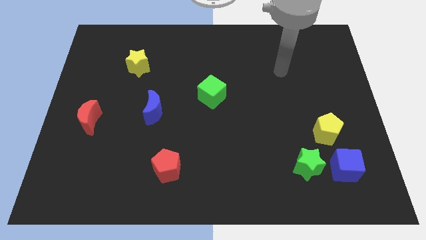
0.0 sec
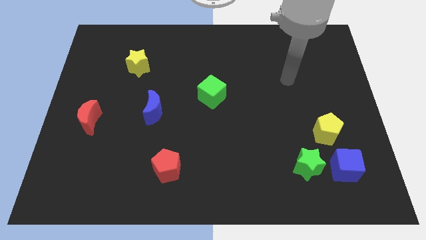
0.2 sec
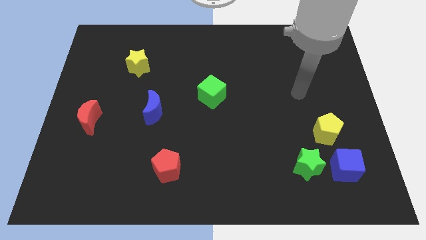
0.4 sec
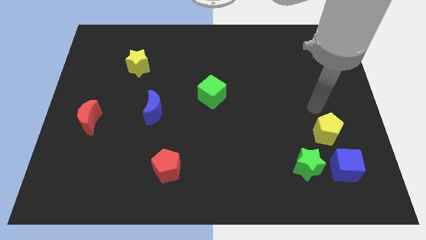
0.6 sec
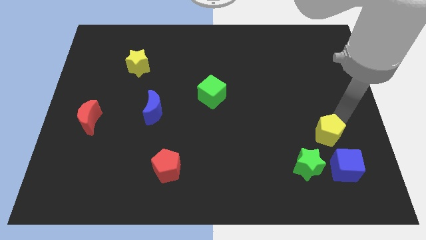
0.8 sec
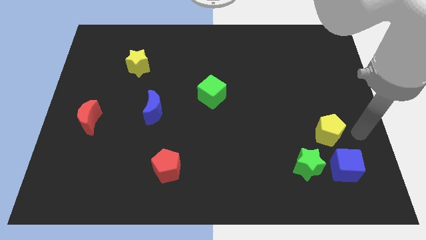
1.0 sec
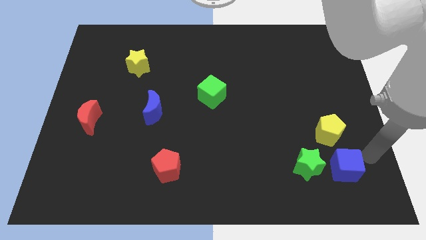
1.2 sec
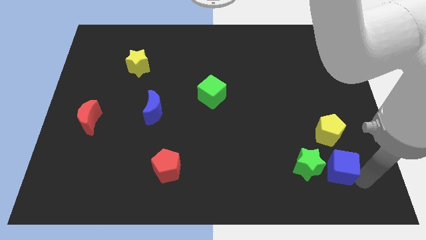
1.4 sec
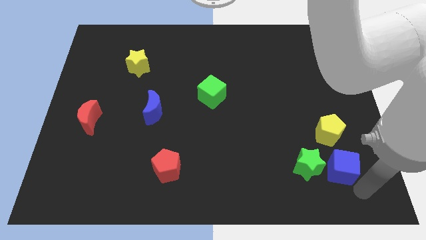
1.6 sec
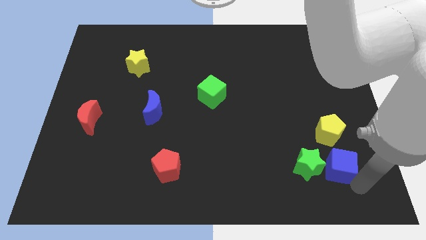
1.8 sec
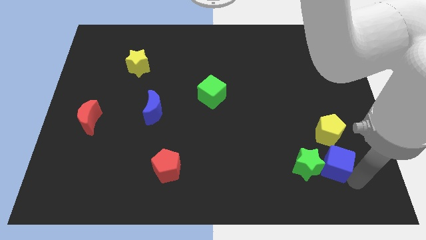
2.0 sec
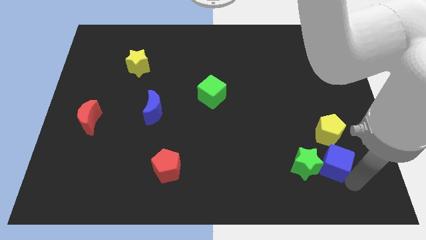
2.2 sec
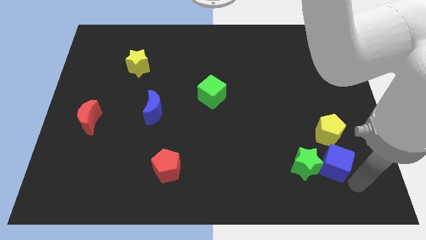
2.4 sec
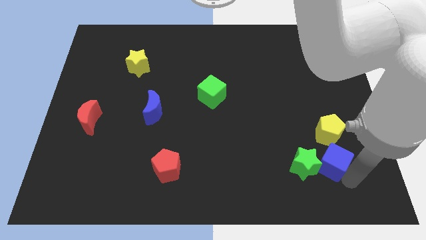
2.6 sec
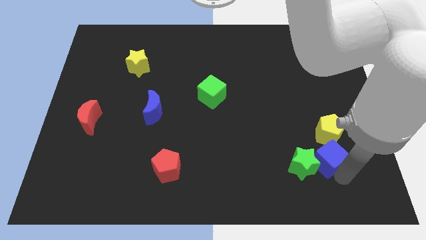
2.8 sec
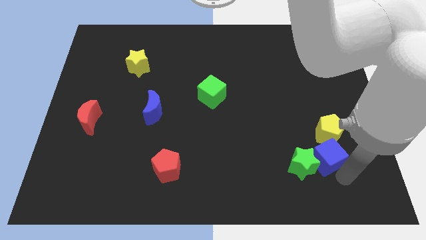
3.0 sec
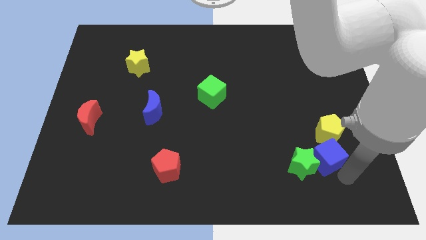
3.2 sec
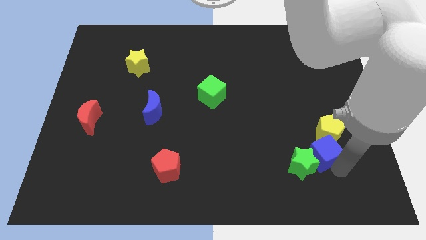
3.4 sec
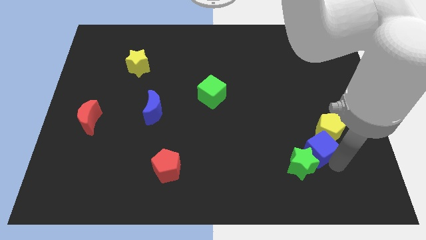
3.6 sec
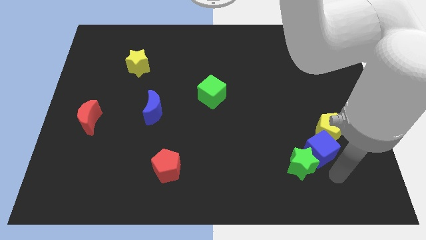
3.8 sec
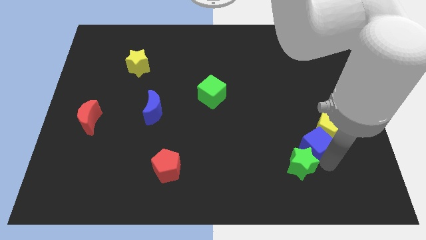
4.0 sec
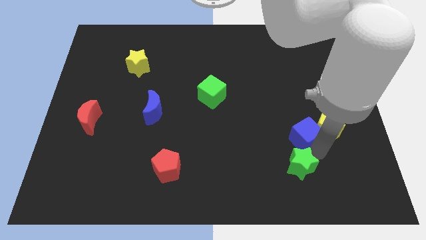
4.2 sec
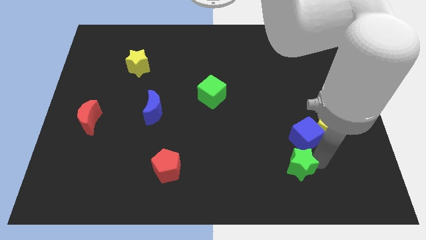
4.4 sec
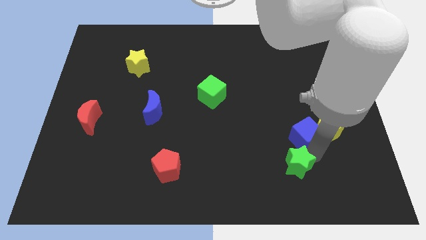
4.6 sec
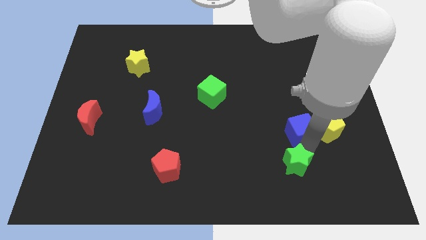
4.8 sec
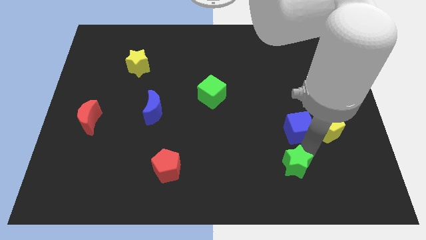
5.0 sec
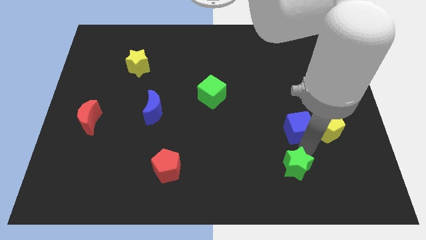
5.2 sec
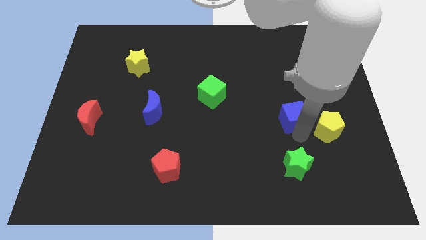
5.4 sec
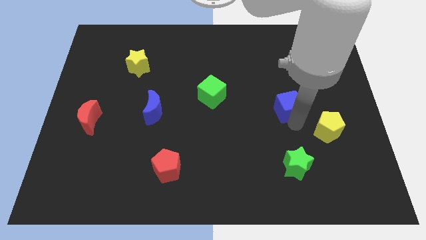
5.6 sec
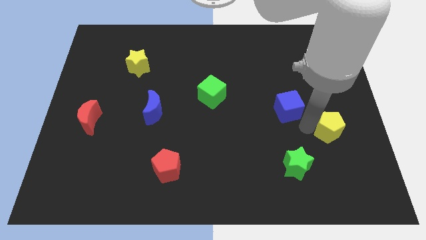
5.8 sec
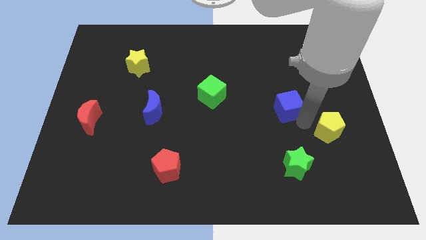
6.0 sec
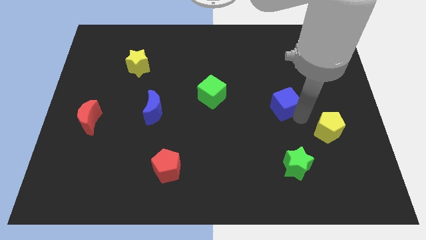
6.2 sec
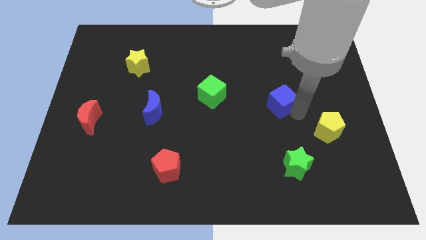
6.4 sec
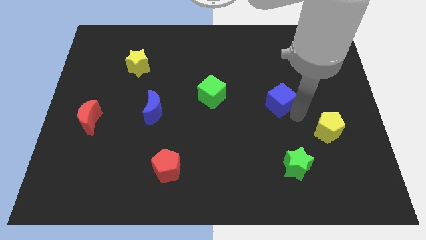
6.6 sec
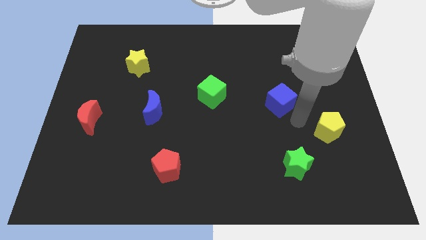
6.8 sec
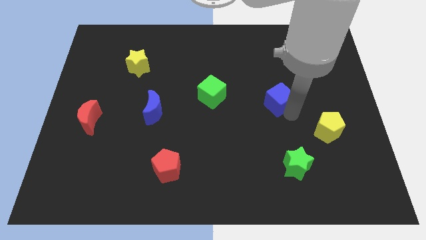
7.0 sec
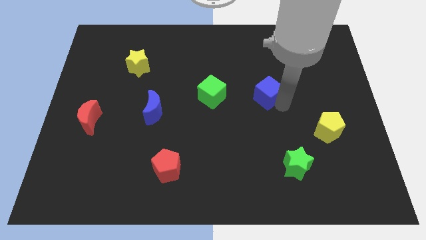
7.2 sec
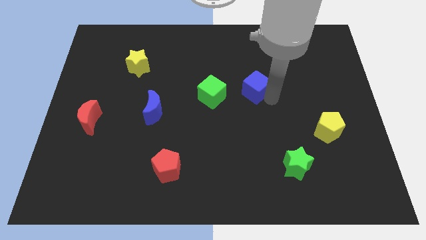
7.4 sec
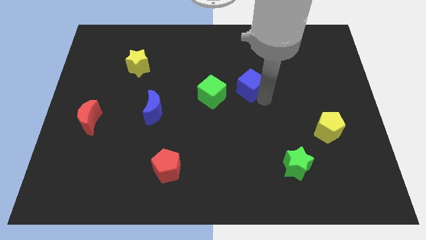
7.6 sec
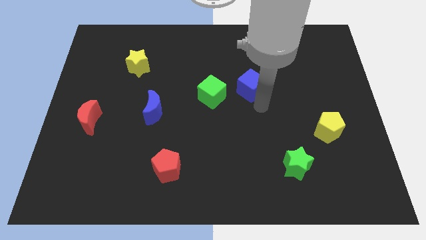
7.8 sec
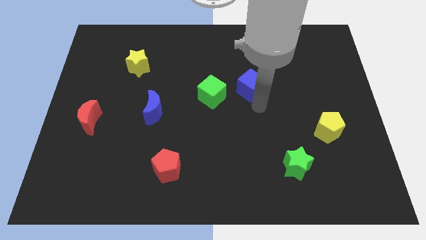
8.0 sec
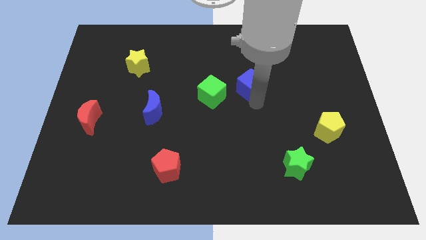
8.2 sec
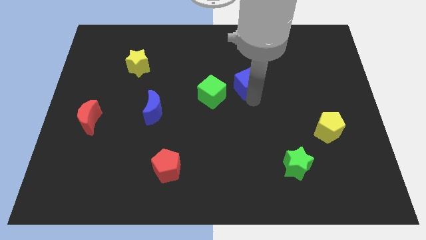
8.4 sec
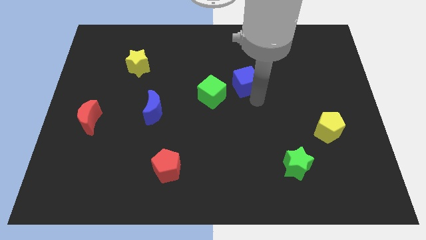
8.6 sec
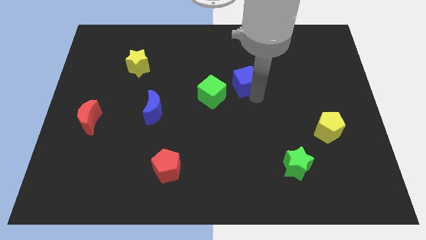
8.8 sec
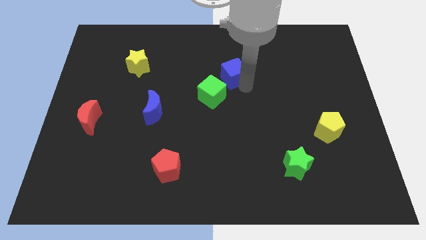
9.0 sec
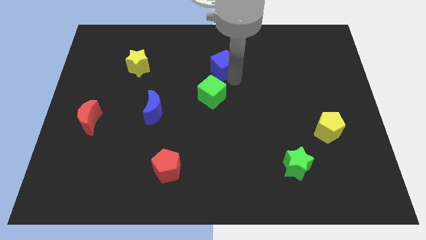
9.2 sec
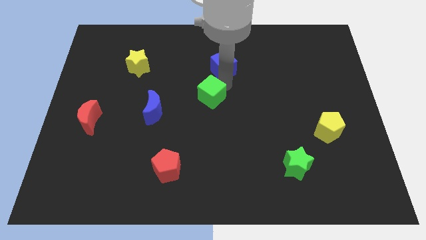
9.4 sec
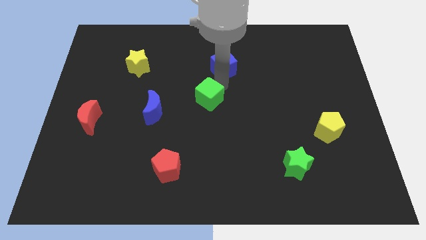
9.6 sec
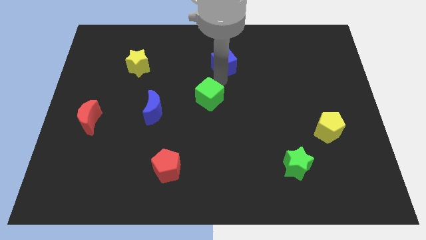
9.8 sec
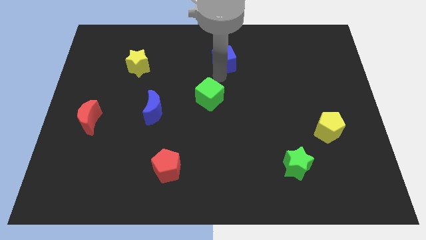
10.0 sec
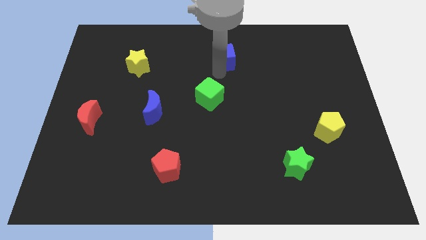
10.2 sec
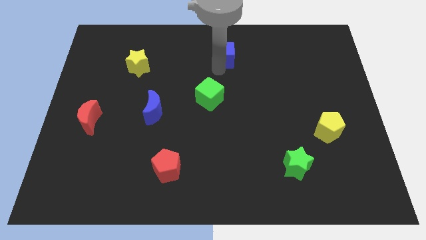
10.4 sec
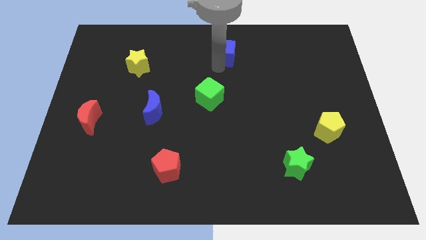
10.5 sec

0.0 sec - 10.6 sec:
put the blue cube to the top side

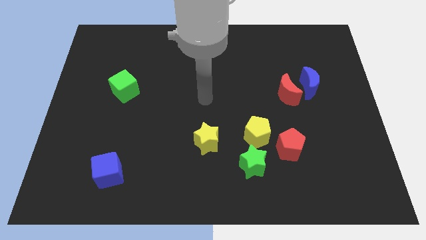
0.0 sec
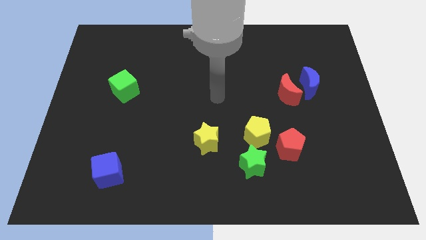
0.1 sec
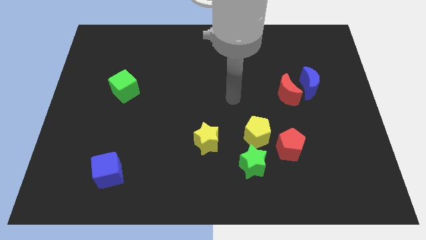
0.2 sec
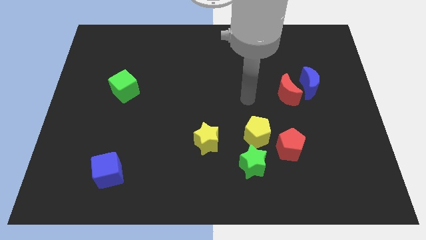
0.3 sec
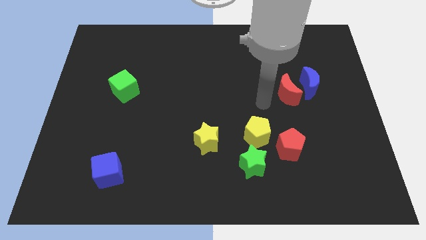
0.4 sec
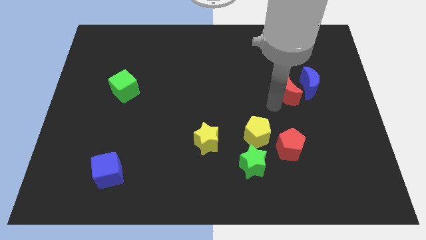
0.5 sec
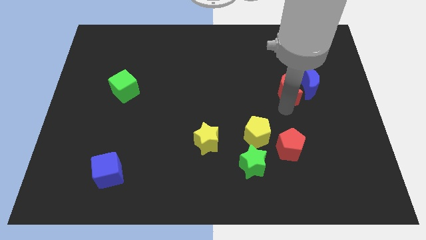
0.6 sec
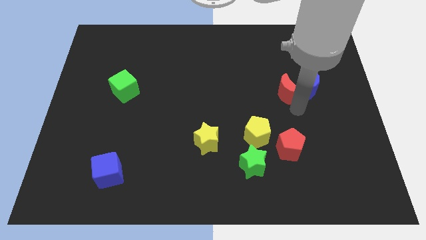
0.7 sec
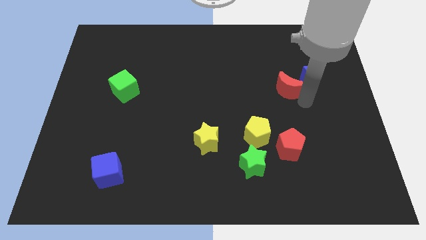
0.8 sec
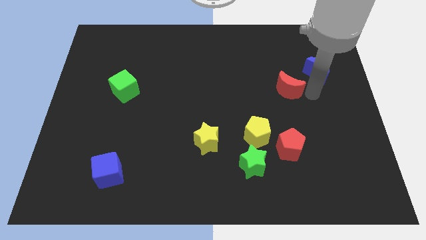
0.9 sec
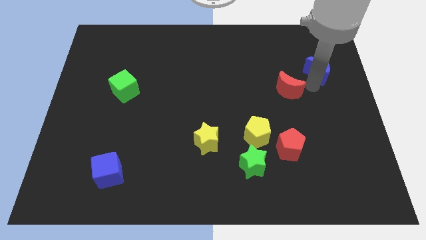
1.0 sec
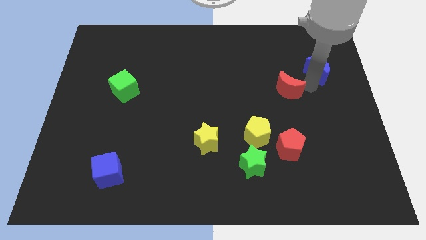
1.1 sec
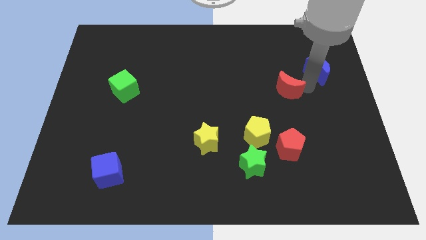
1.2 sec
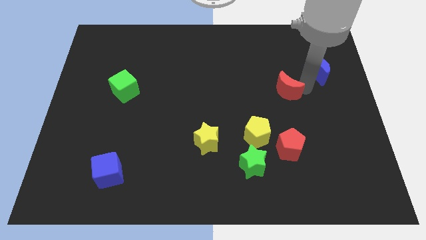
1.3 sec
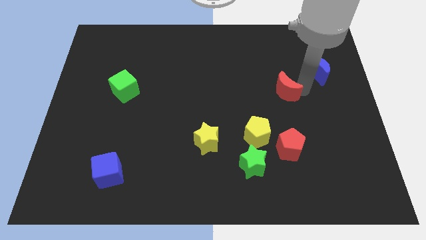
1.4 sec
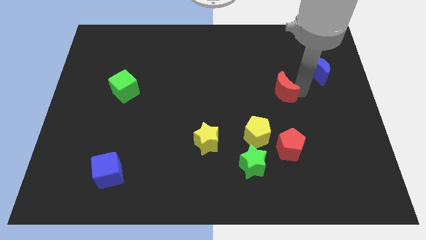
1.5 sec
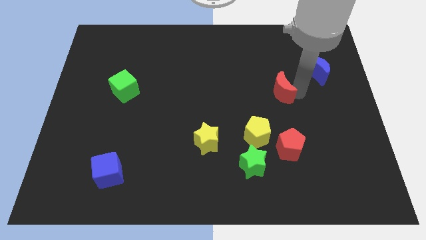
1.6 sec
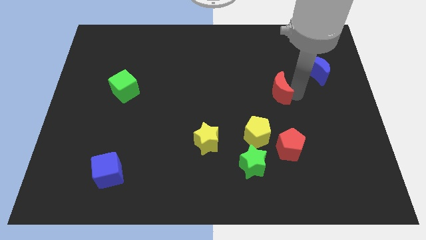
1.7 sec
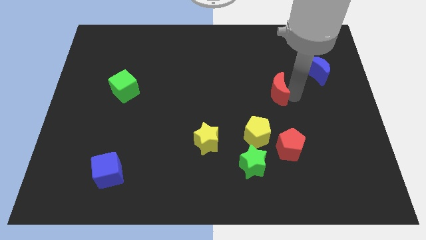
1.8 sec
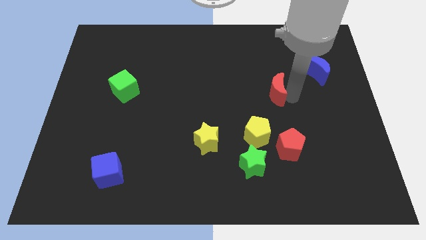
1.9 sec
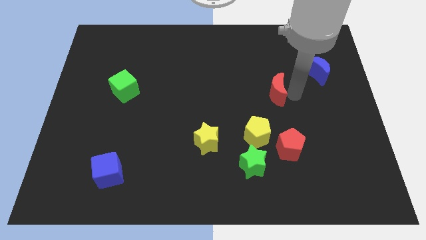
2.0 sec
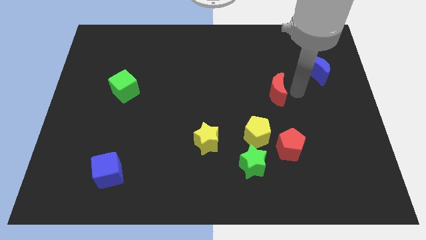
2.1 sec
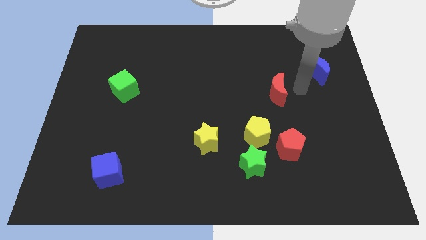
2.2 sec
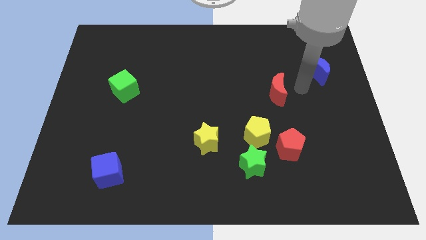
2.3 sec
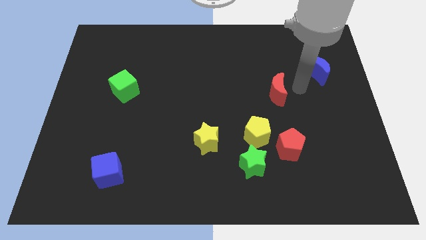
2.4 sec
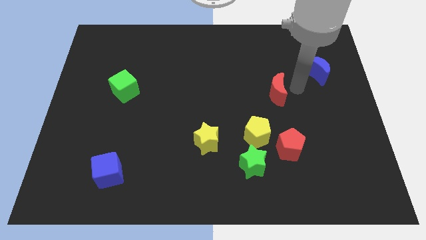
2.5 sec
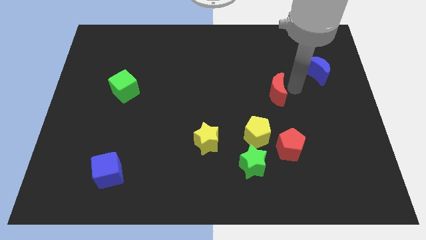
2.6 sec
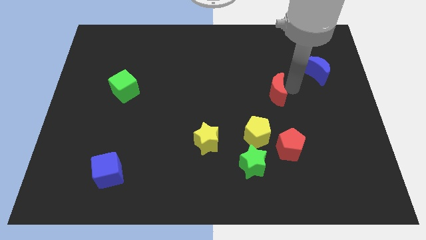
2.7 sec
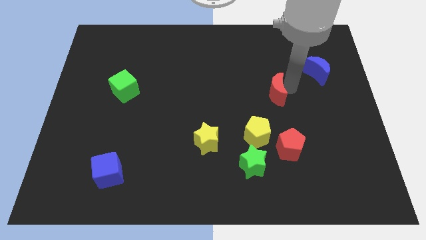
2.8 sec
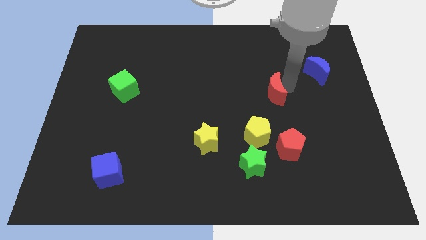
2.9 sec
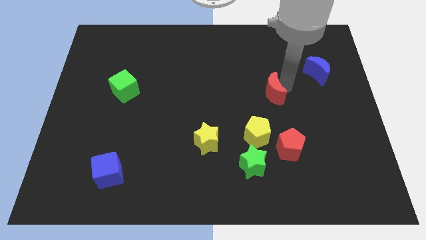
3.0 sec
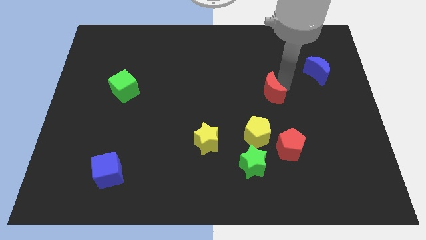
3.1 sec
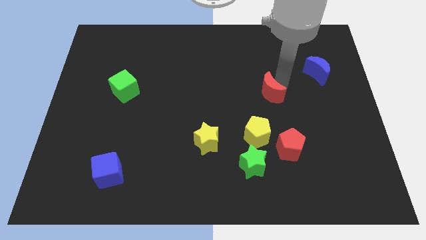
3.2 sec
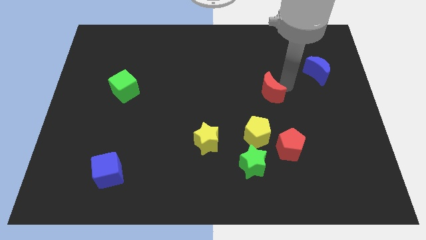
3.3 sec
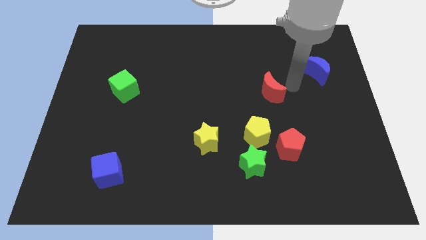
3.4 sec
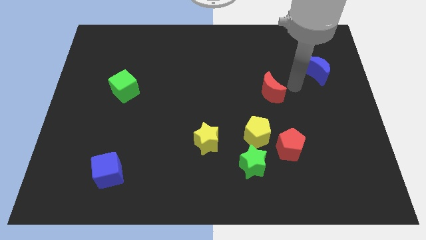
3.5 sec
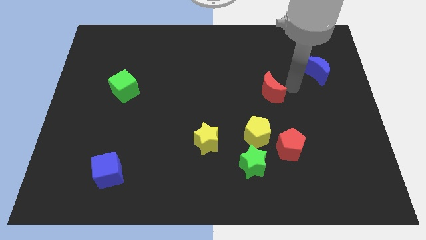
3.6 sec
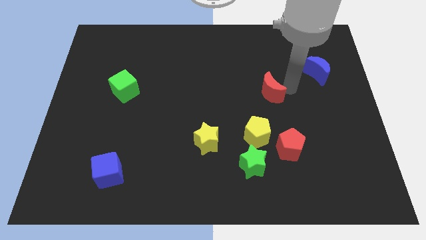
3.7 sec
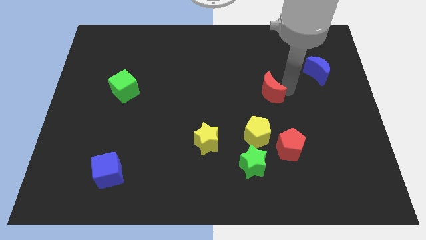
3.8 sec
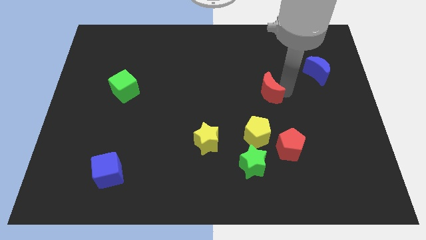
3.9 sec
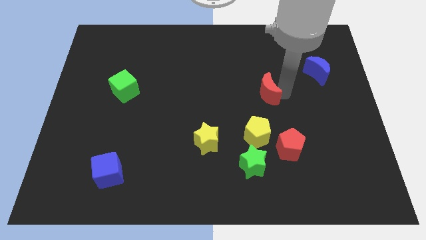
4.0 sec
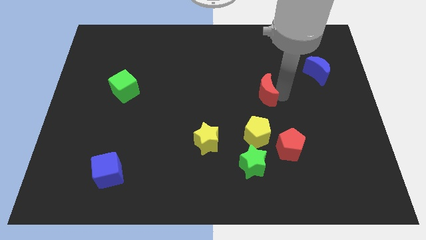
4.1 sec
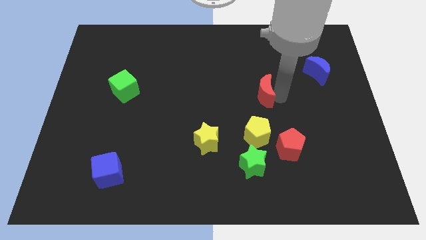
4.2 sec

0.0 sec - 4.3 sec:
slide the red moon to the center of the board
